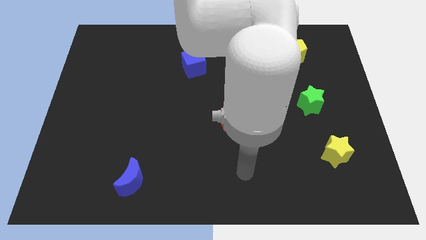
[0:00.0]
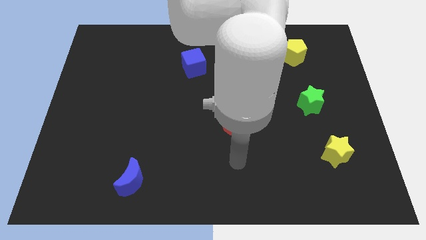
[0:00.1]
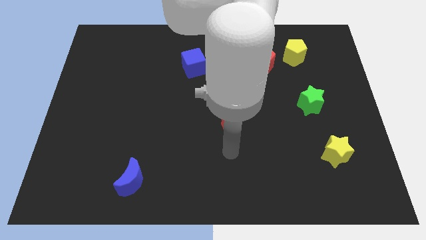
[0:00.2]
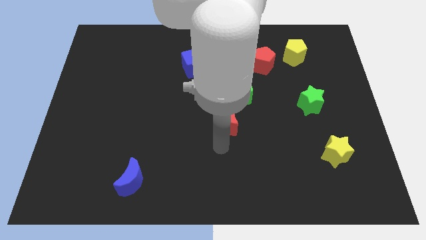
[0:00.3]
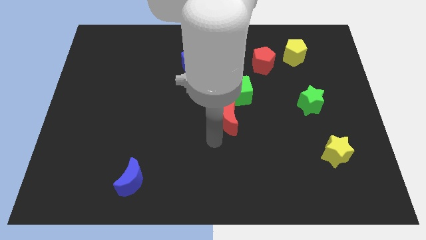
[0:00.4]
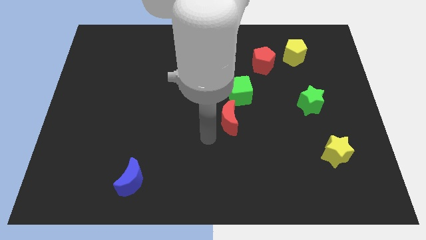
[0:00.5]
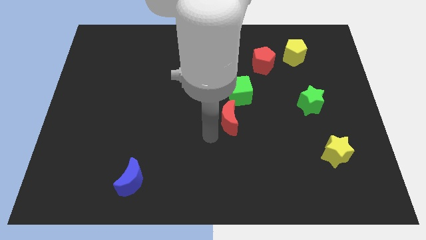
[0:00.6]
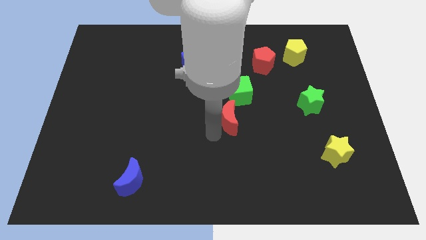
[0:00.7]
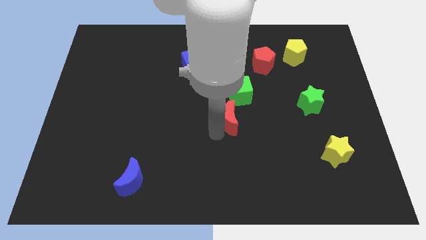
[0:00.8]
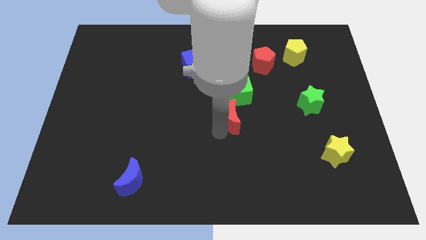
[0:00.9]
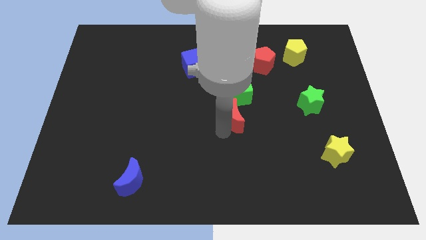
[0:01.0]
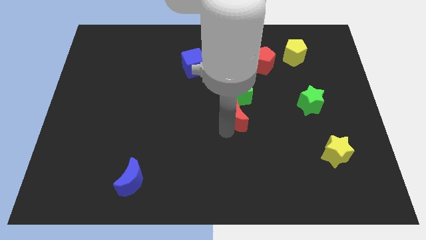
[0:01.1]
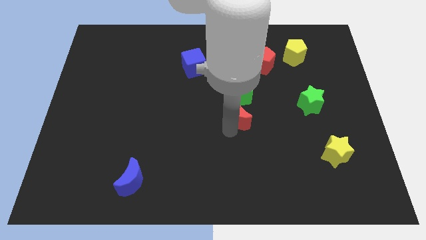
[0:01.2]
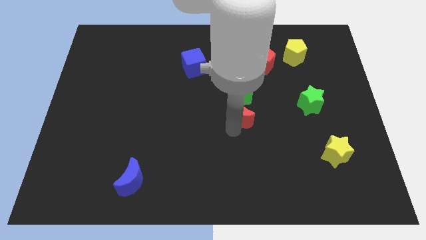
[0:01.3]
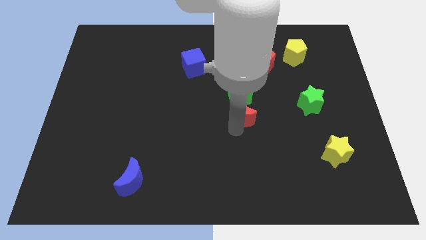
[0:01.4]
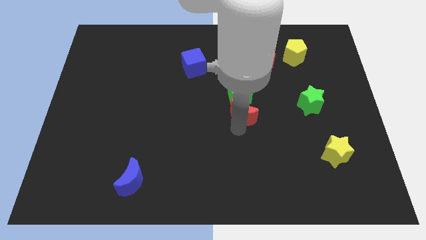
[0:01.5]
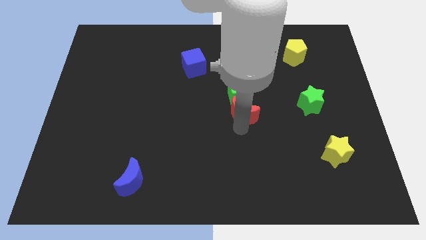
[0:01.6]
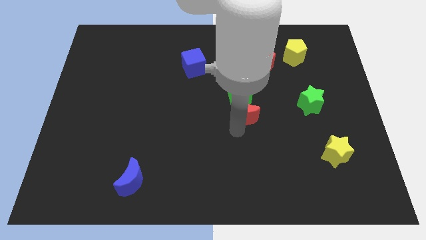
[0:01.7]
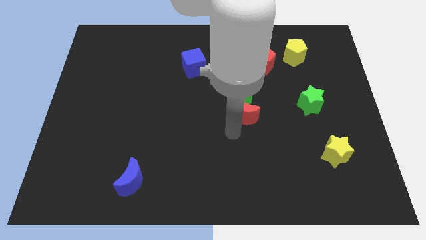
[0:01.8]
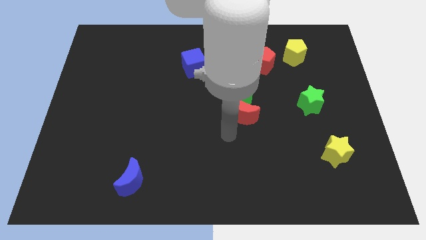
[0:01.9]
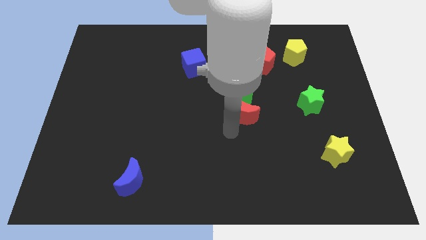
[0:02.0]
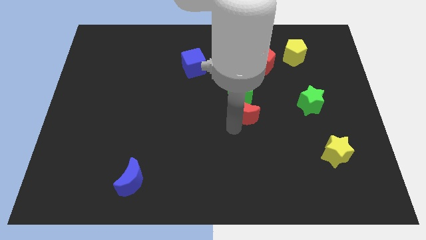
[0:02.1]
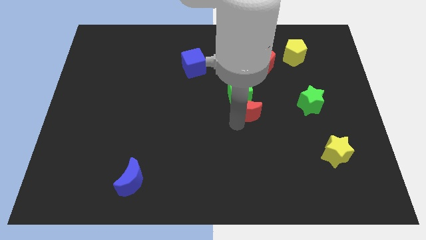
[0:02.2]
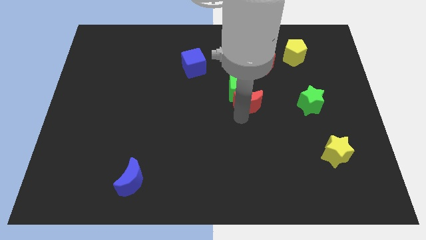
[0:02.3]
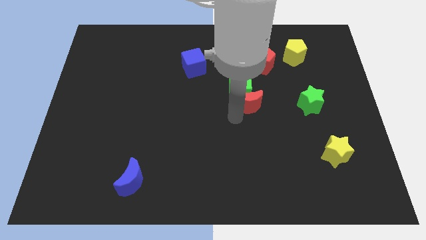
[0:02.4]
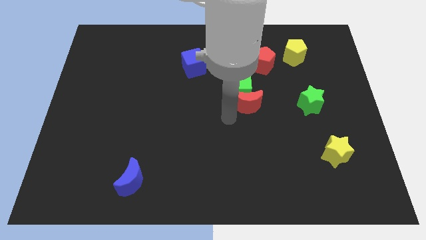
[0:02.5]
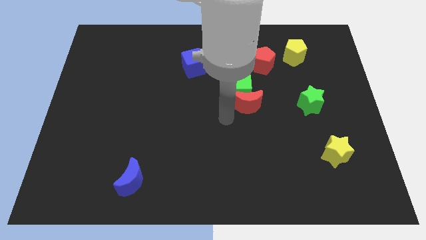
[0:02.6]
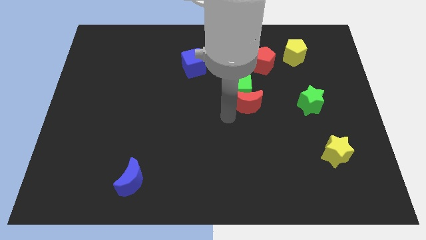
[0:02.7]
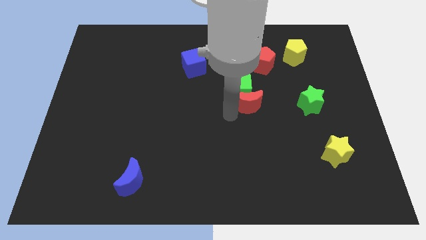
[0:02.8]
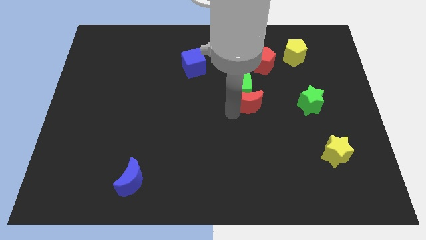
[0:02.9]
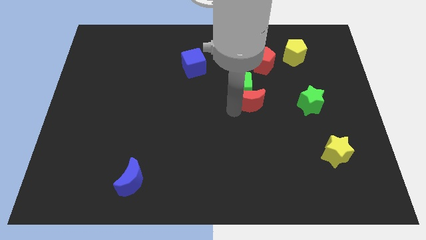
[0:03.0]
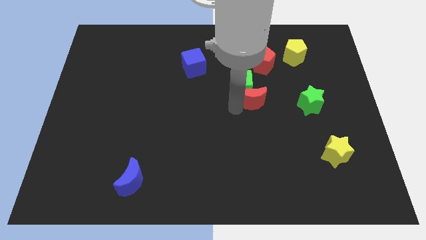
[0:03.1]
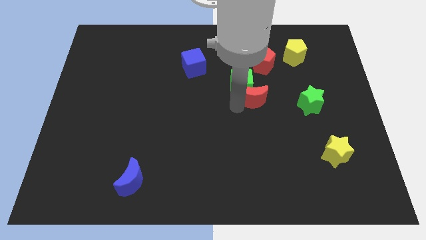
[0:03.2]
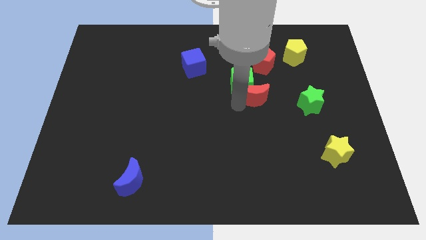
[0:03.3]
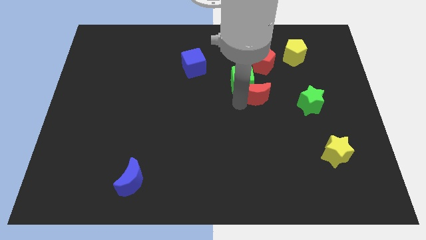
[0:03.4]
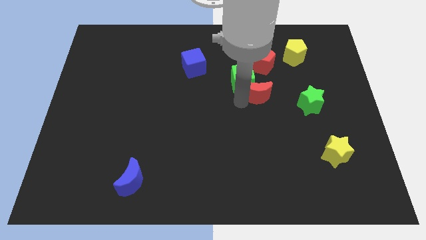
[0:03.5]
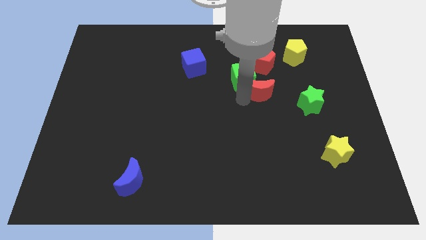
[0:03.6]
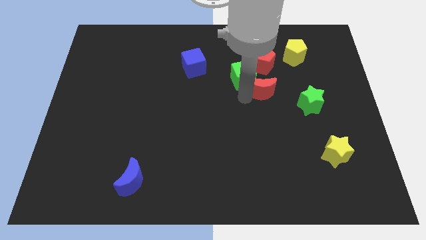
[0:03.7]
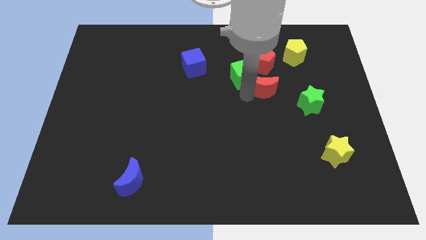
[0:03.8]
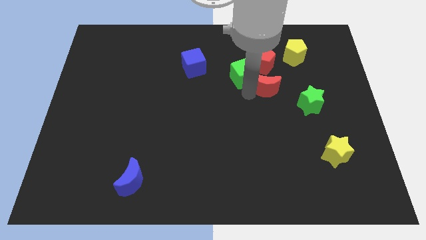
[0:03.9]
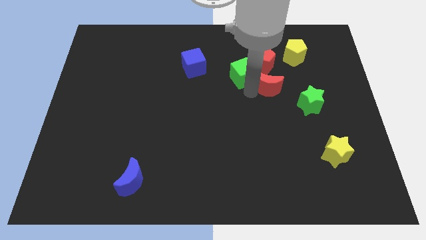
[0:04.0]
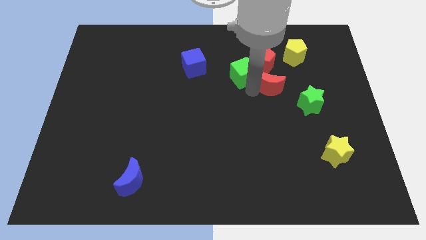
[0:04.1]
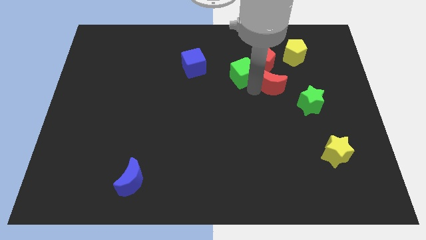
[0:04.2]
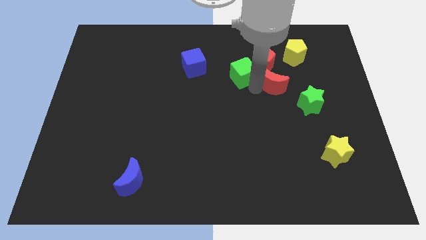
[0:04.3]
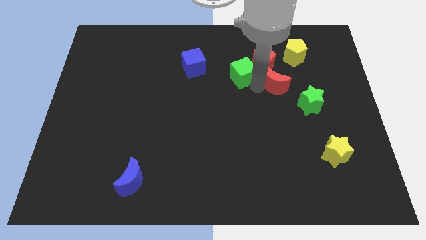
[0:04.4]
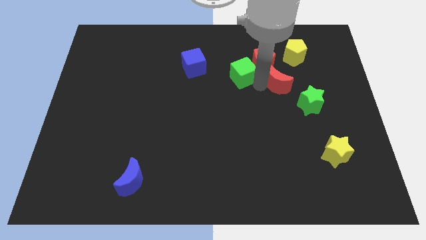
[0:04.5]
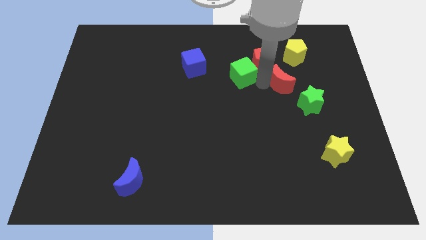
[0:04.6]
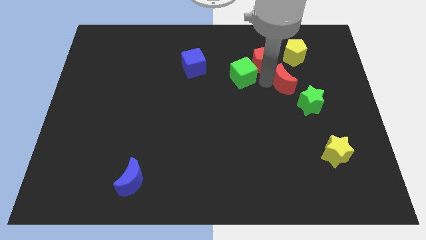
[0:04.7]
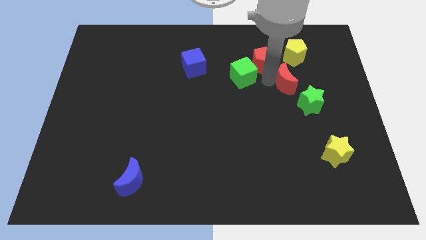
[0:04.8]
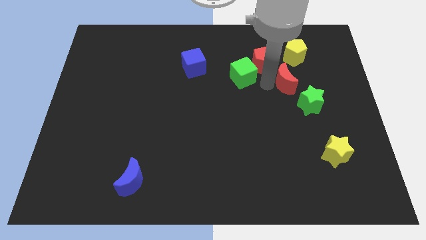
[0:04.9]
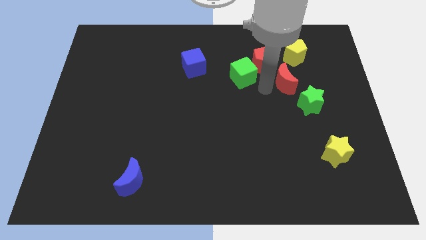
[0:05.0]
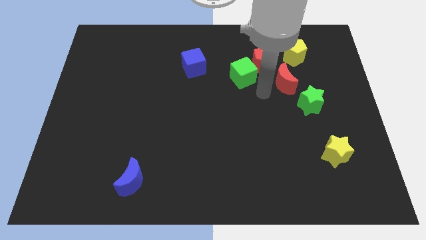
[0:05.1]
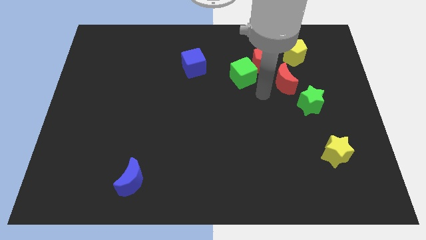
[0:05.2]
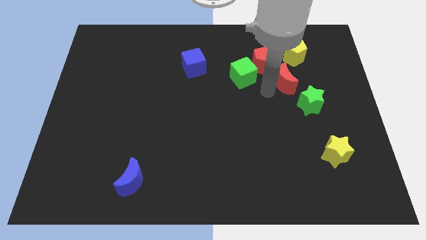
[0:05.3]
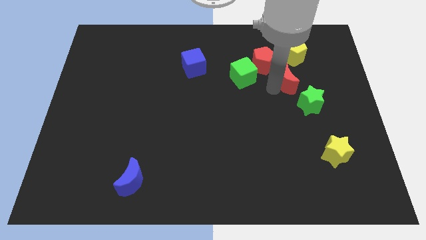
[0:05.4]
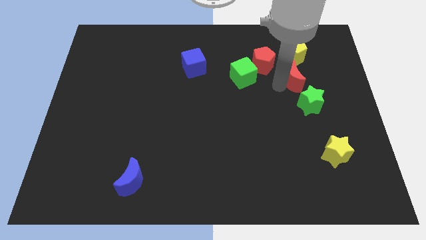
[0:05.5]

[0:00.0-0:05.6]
push the red moon to the top side of the green star

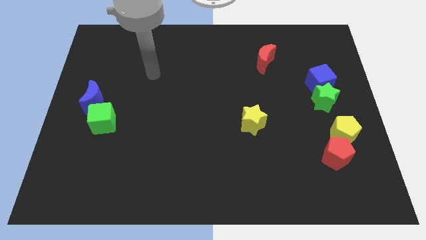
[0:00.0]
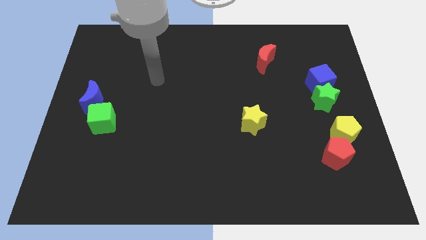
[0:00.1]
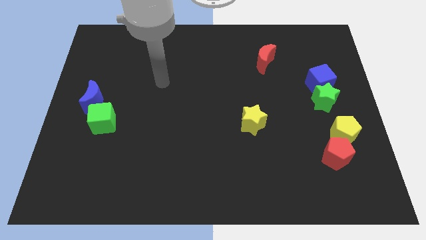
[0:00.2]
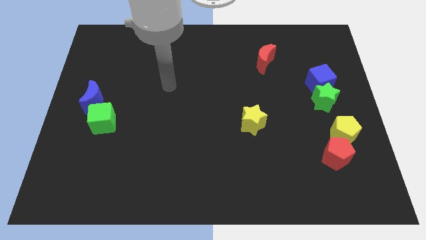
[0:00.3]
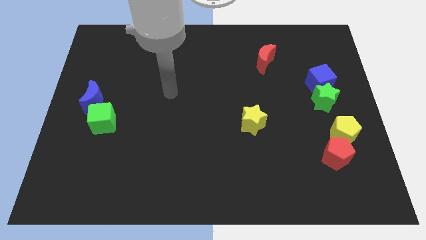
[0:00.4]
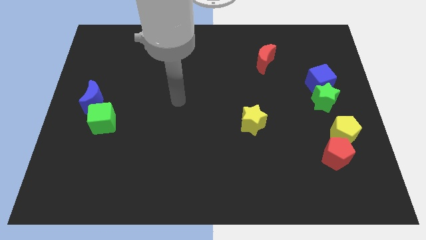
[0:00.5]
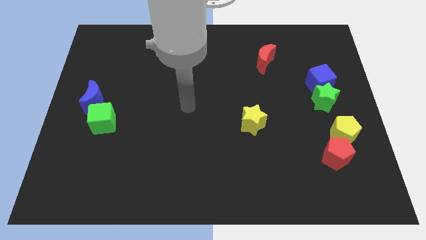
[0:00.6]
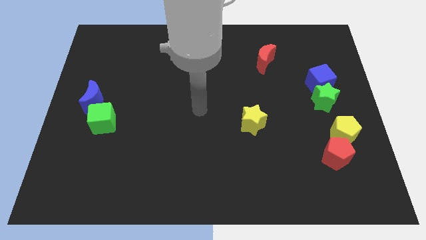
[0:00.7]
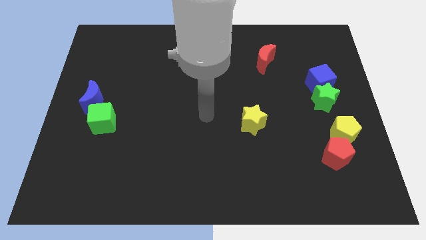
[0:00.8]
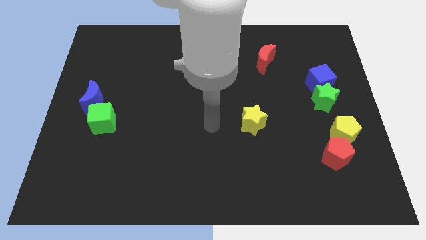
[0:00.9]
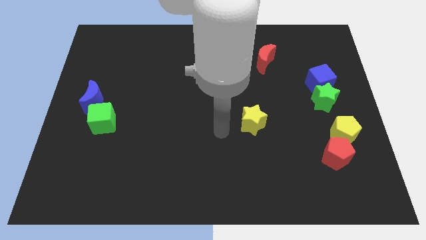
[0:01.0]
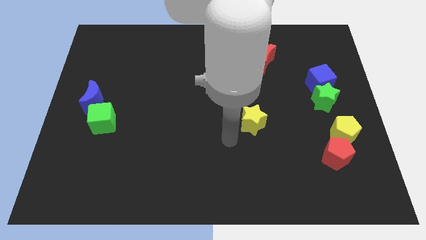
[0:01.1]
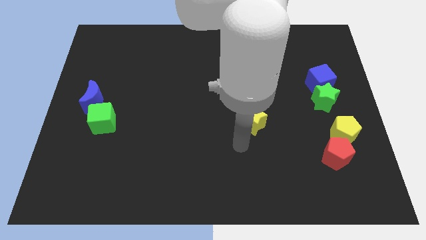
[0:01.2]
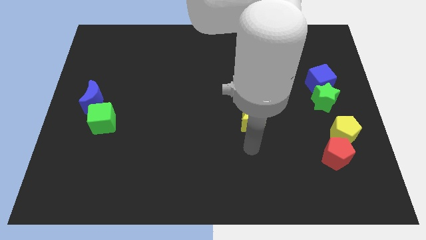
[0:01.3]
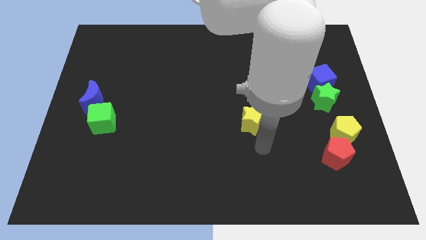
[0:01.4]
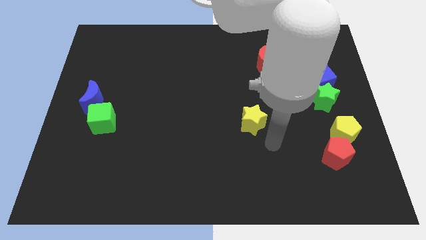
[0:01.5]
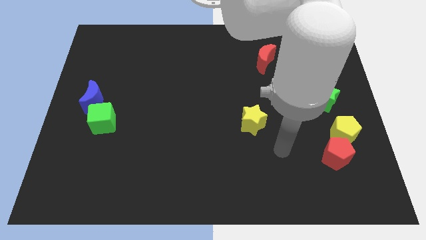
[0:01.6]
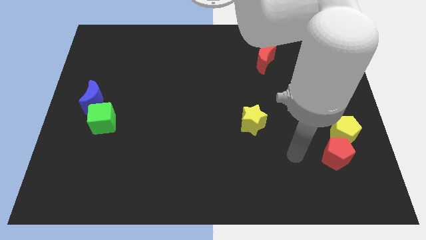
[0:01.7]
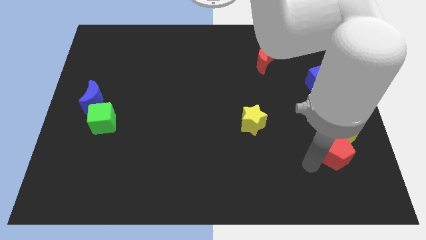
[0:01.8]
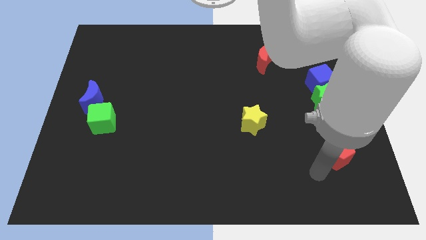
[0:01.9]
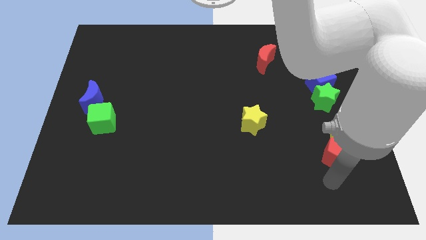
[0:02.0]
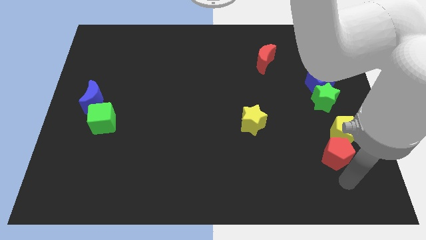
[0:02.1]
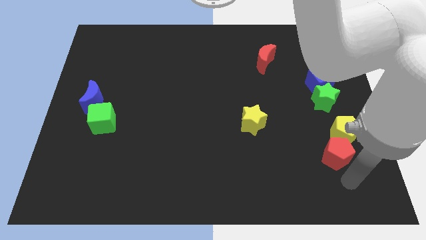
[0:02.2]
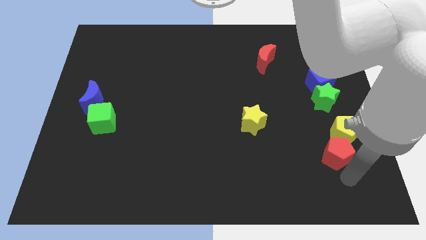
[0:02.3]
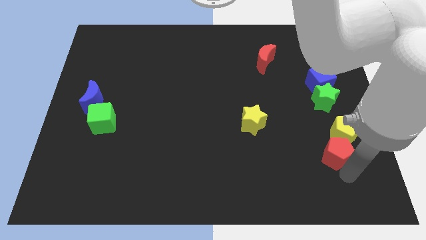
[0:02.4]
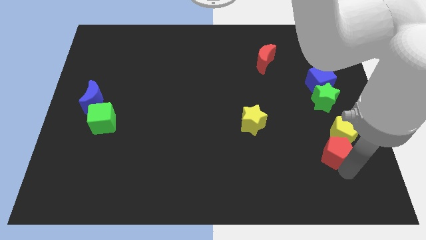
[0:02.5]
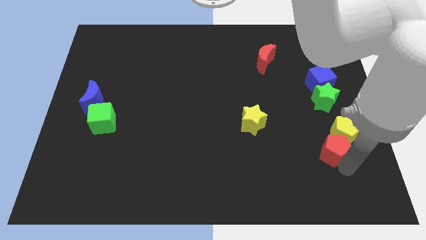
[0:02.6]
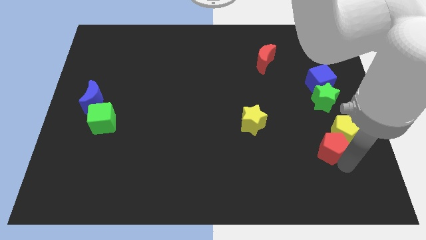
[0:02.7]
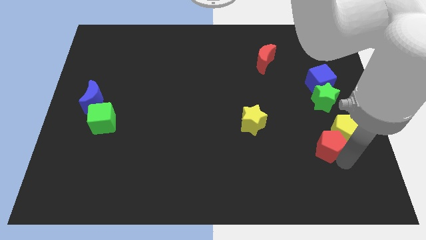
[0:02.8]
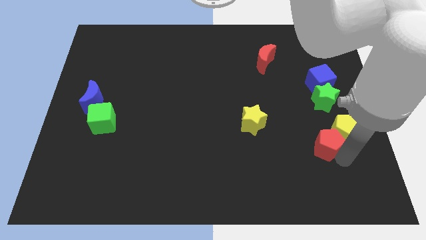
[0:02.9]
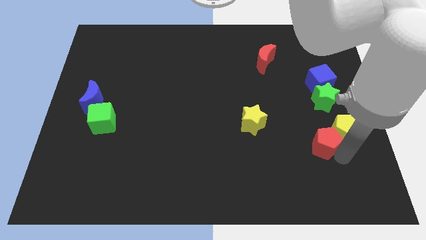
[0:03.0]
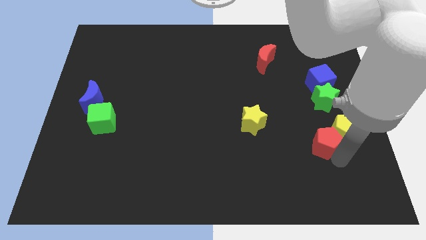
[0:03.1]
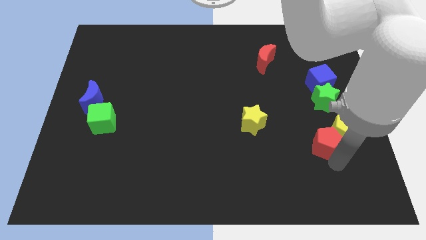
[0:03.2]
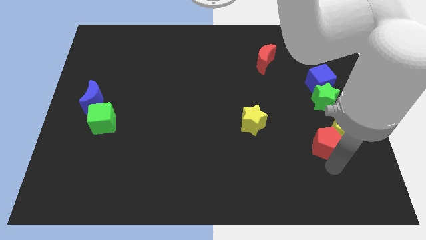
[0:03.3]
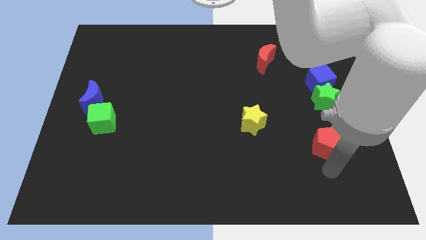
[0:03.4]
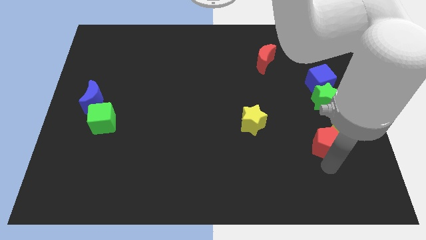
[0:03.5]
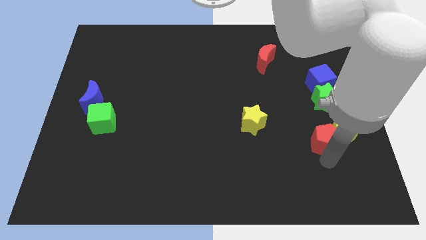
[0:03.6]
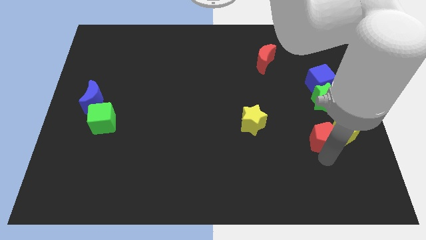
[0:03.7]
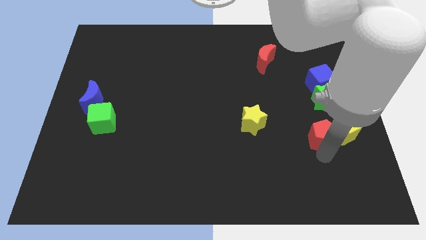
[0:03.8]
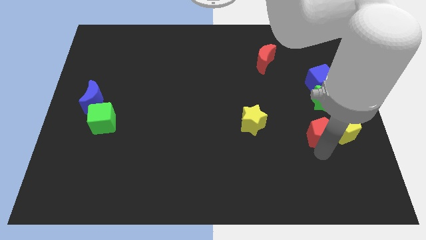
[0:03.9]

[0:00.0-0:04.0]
move the red pentagon to the top left of the yellow pentagon
